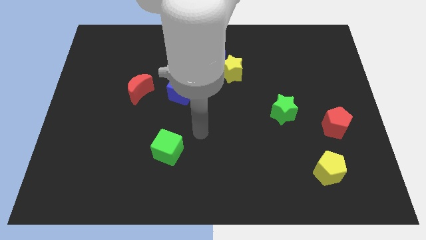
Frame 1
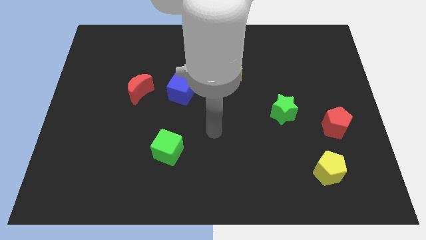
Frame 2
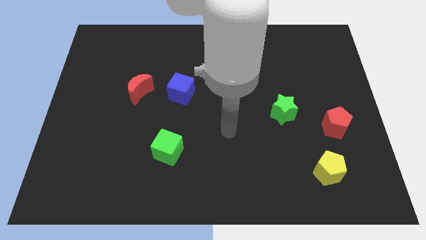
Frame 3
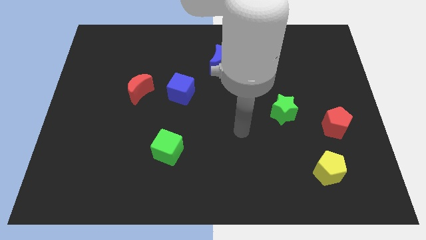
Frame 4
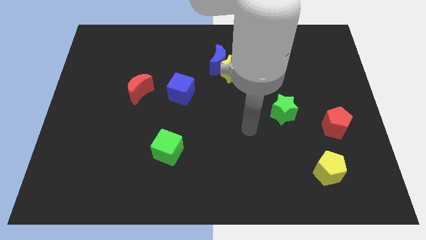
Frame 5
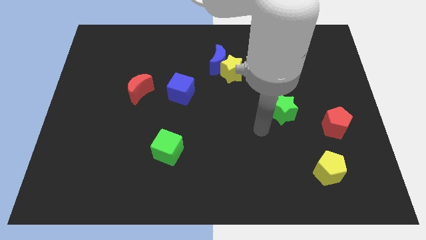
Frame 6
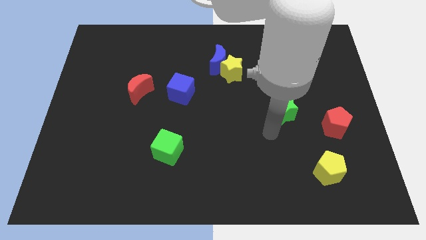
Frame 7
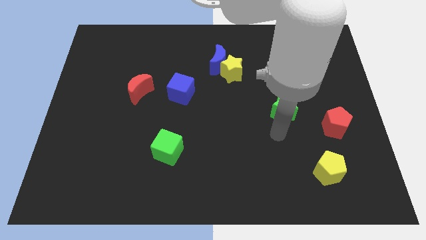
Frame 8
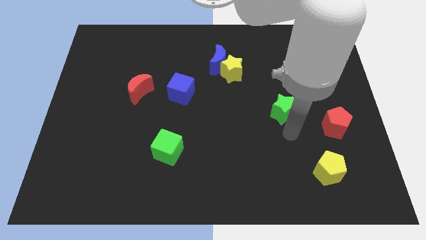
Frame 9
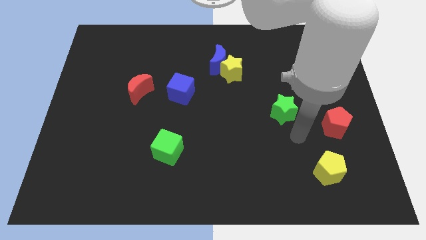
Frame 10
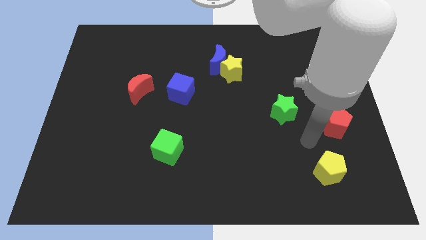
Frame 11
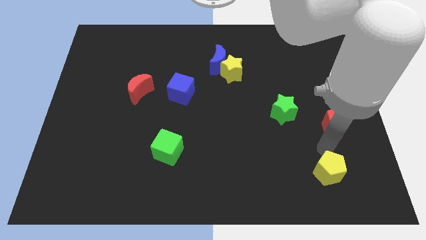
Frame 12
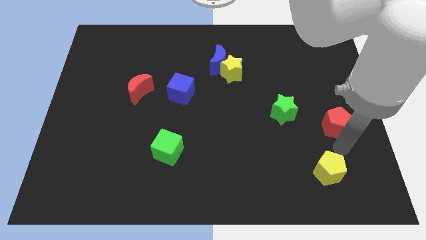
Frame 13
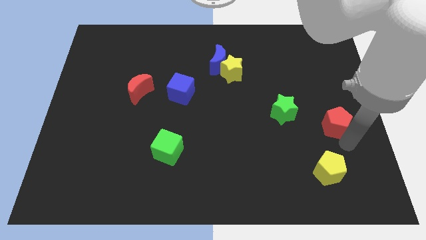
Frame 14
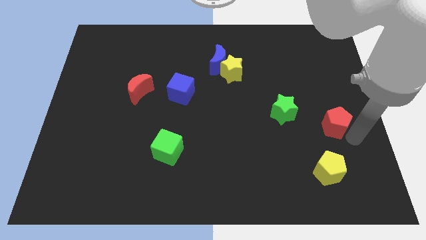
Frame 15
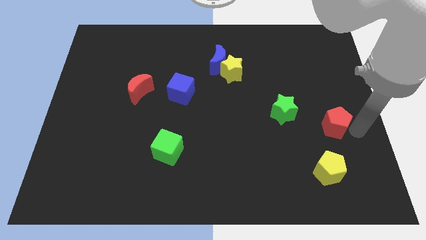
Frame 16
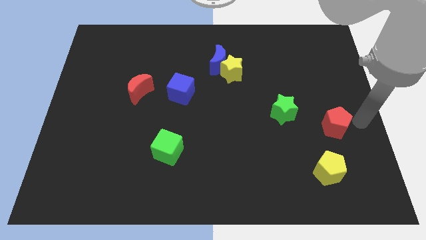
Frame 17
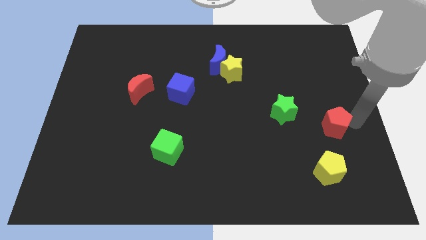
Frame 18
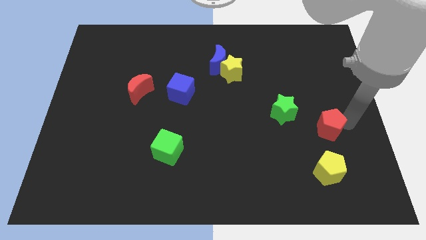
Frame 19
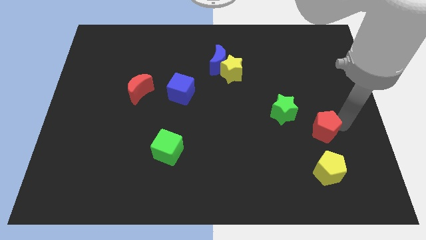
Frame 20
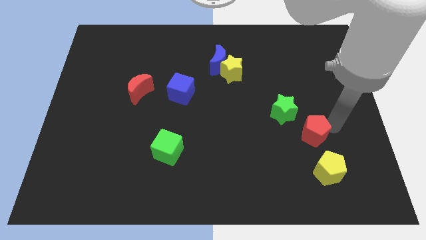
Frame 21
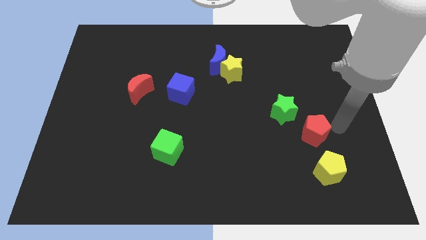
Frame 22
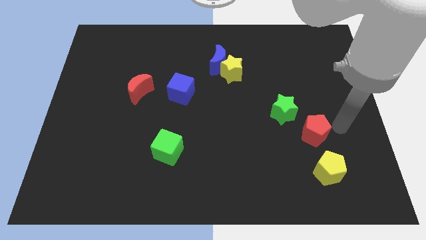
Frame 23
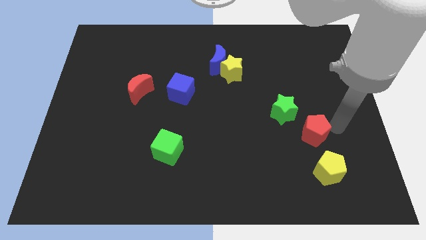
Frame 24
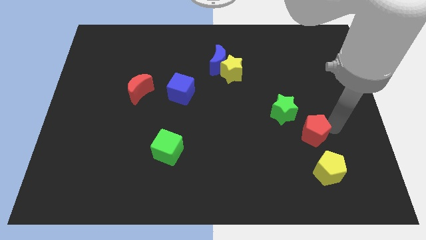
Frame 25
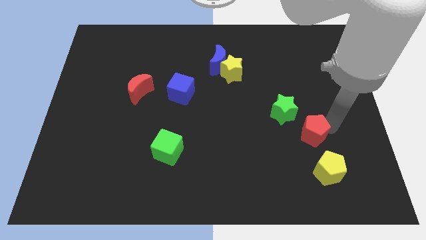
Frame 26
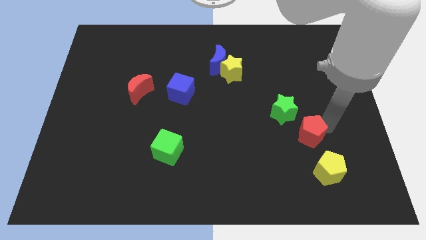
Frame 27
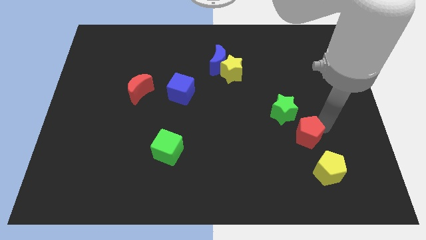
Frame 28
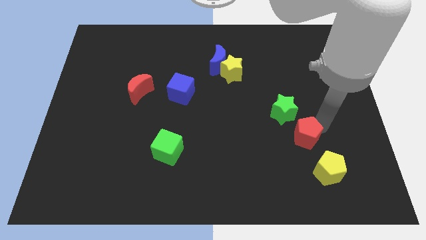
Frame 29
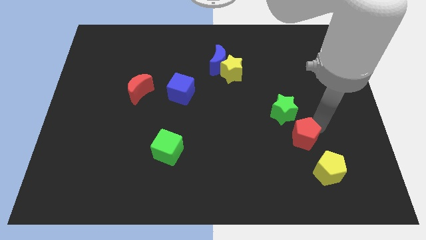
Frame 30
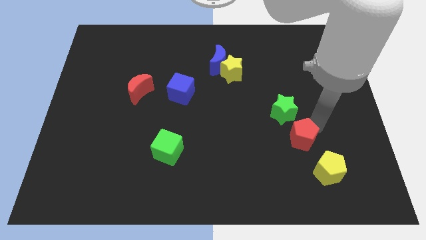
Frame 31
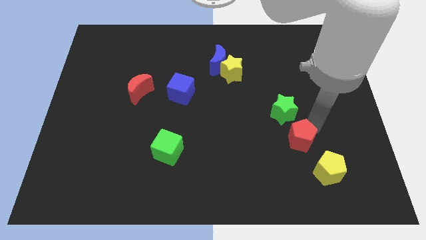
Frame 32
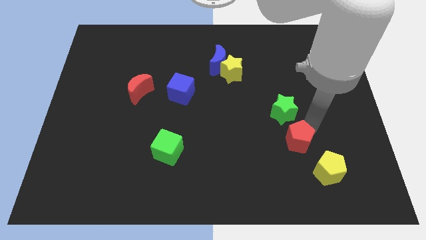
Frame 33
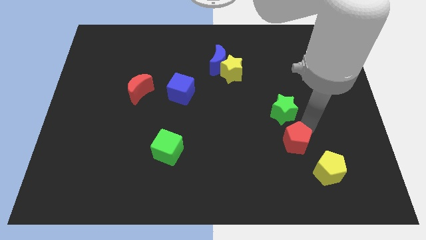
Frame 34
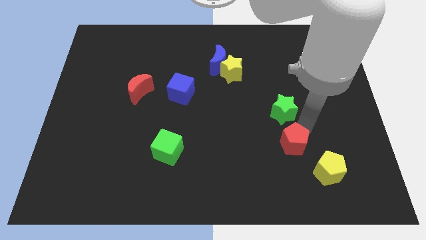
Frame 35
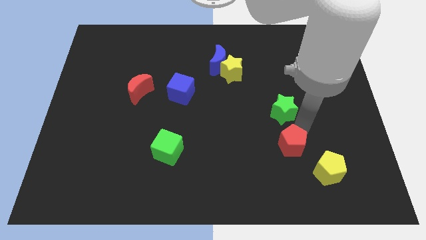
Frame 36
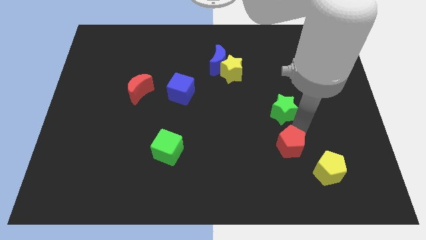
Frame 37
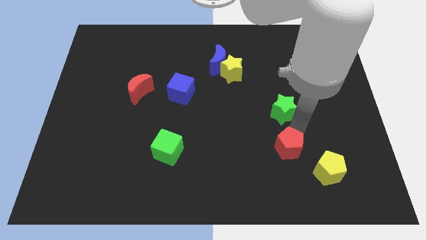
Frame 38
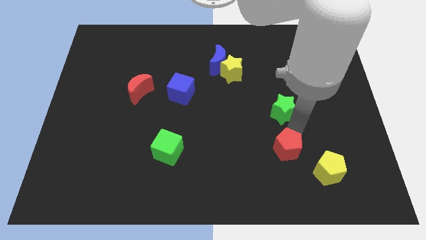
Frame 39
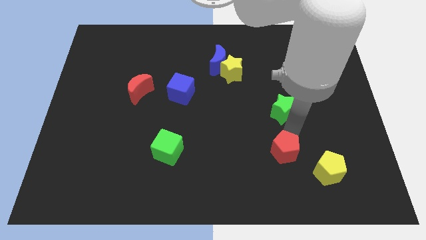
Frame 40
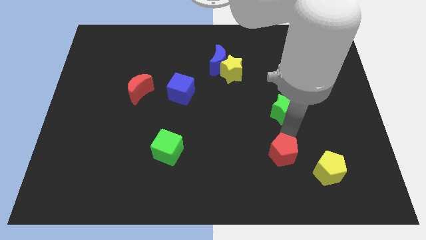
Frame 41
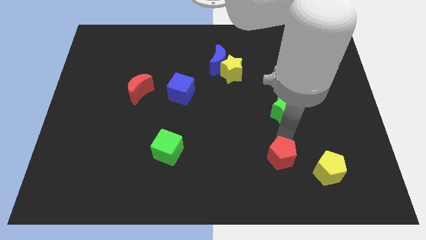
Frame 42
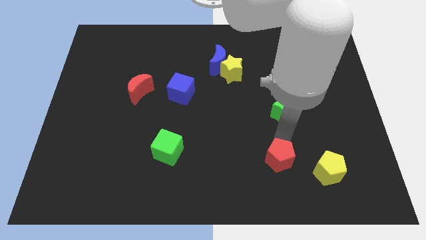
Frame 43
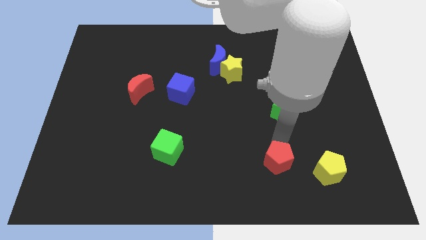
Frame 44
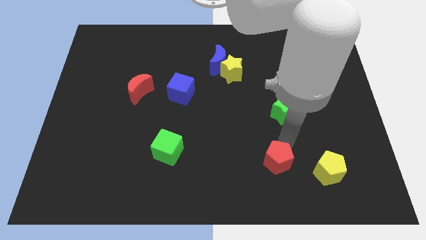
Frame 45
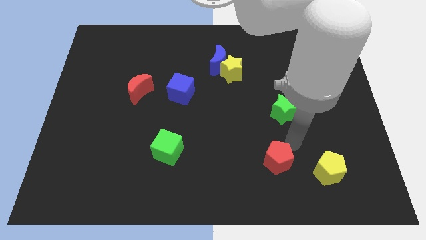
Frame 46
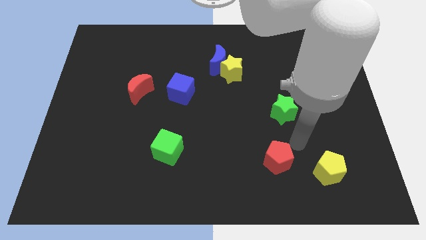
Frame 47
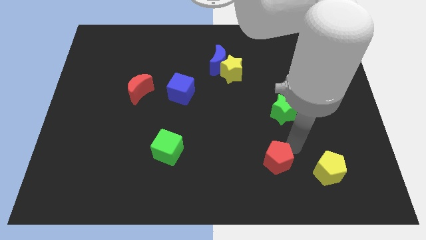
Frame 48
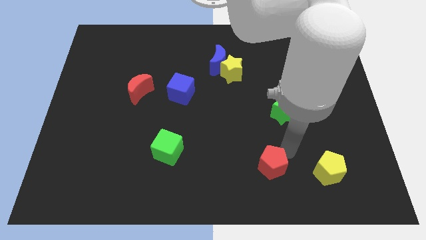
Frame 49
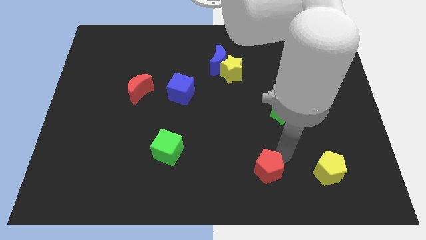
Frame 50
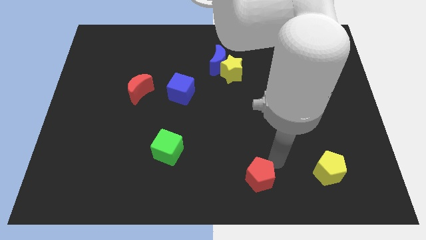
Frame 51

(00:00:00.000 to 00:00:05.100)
put the red pentagon to the bottom

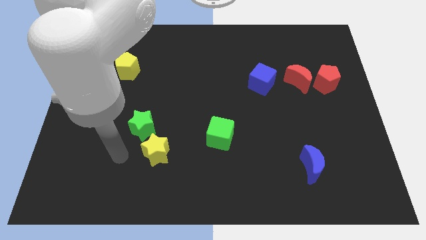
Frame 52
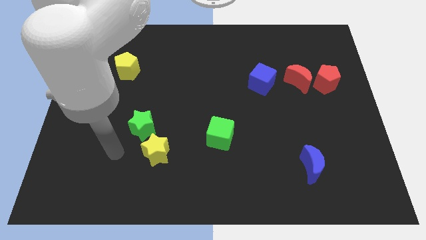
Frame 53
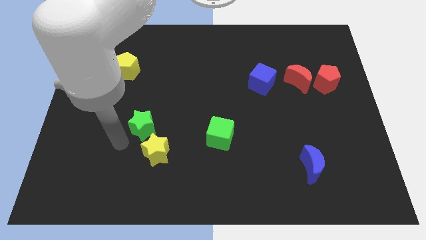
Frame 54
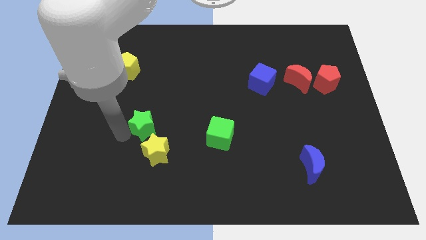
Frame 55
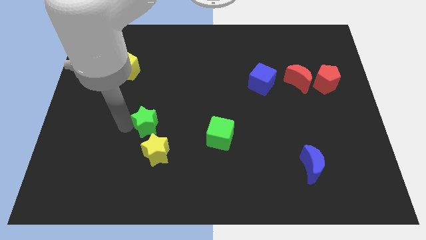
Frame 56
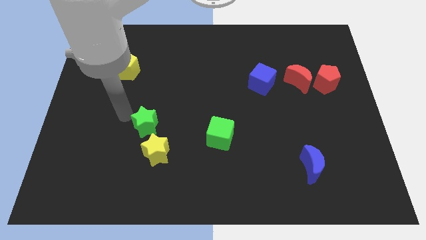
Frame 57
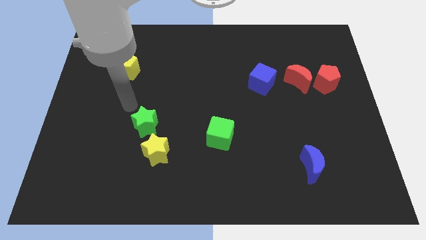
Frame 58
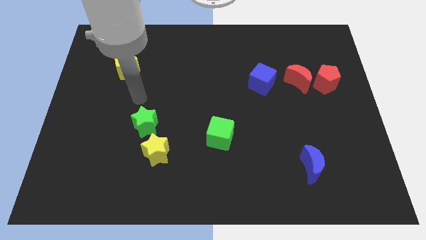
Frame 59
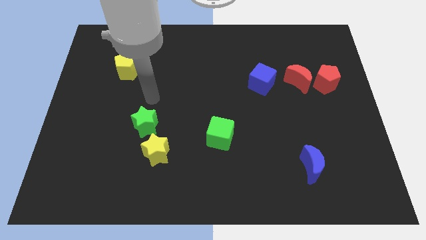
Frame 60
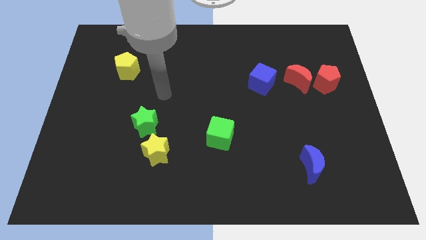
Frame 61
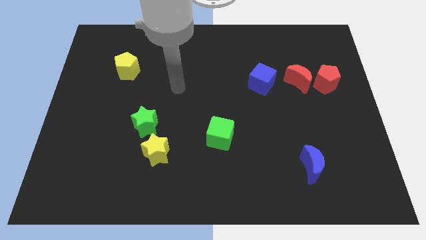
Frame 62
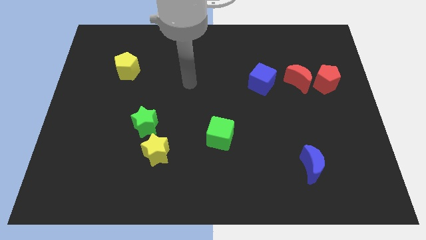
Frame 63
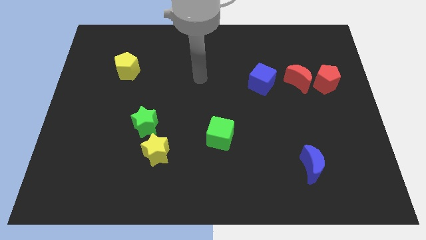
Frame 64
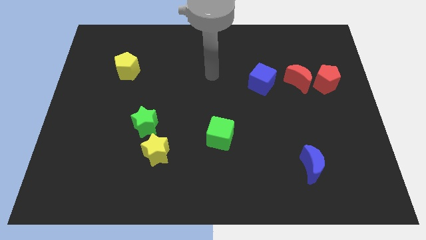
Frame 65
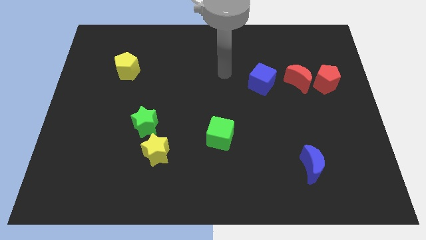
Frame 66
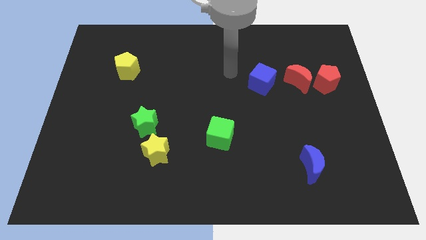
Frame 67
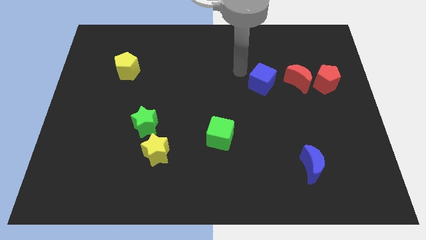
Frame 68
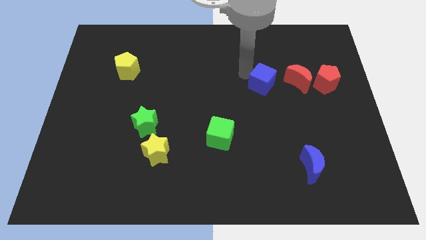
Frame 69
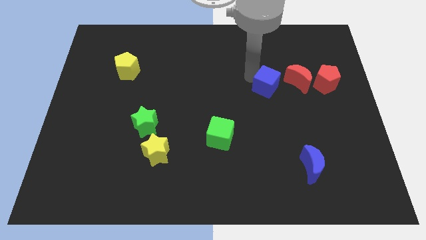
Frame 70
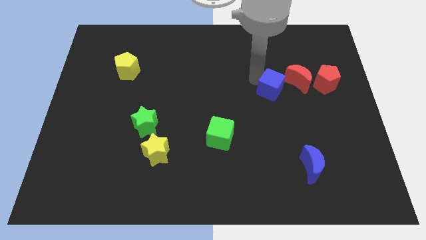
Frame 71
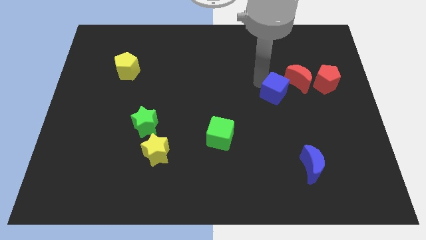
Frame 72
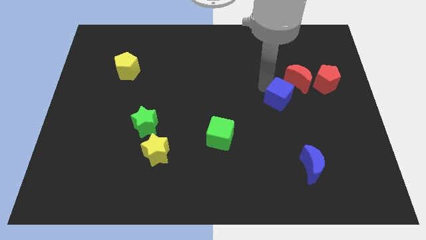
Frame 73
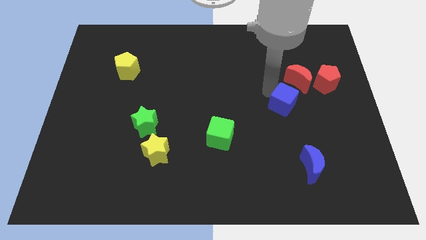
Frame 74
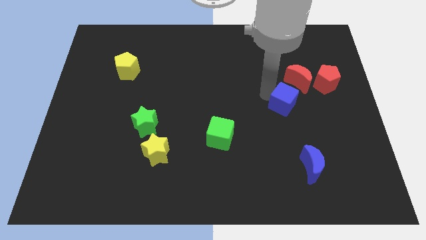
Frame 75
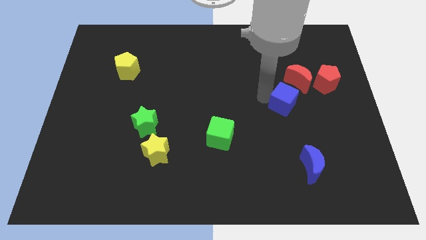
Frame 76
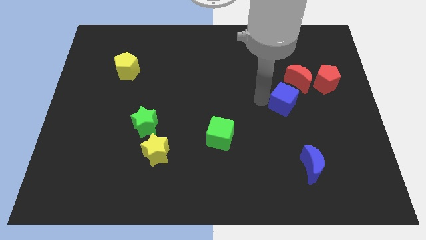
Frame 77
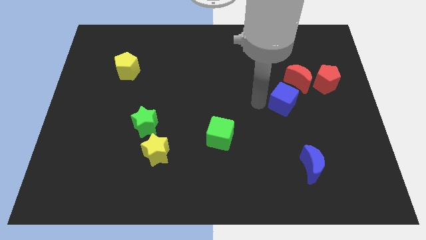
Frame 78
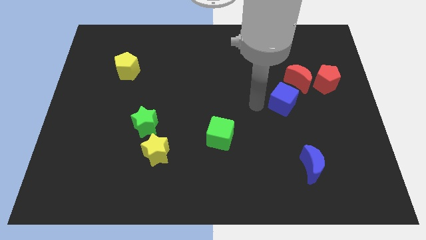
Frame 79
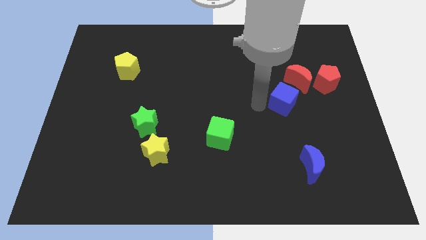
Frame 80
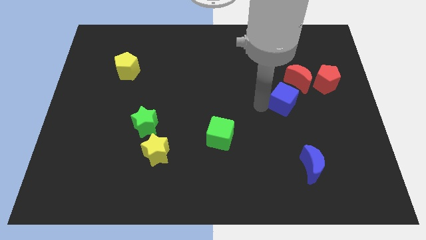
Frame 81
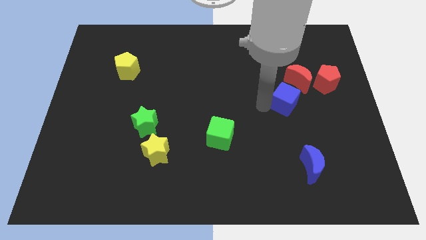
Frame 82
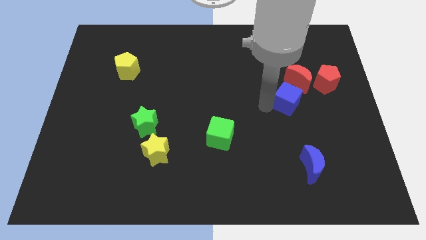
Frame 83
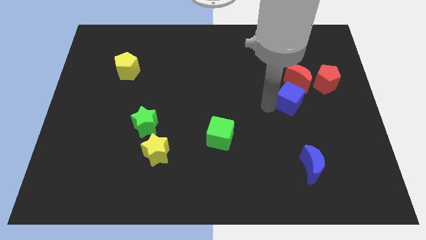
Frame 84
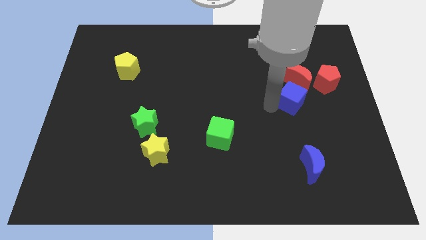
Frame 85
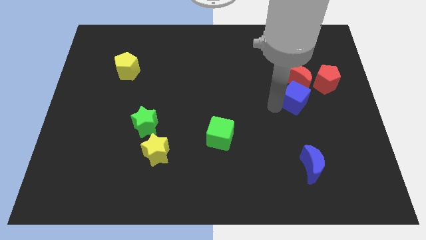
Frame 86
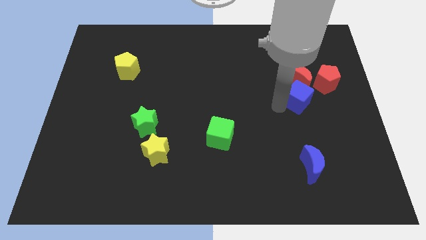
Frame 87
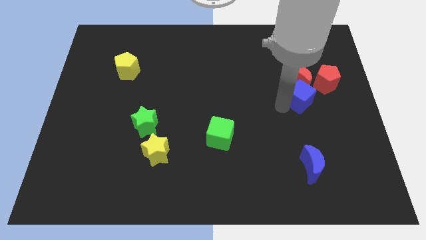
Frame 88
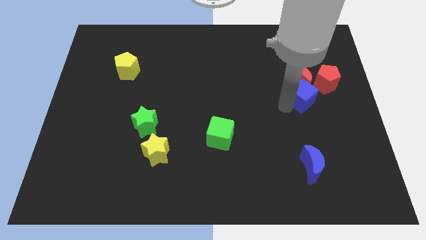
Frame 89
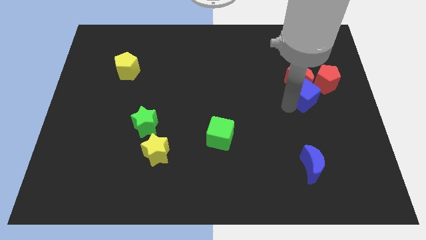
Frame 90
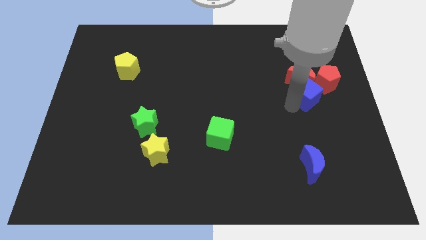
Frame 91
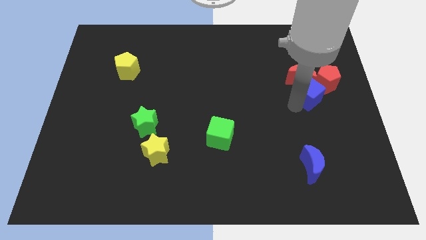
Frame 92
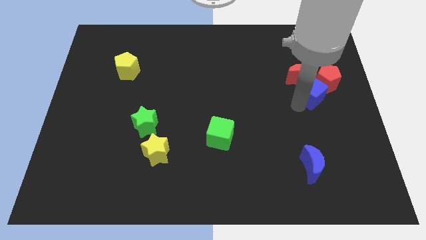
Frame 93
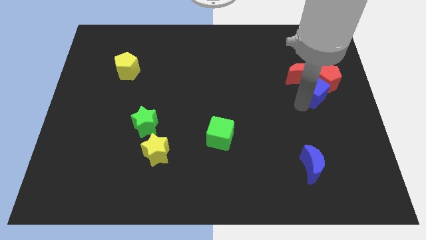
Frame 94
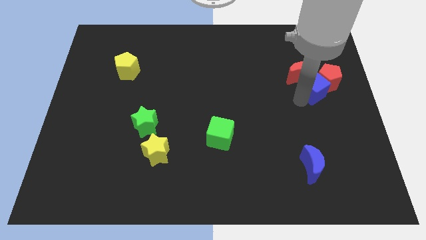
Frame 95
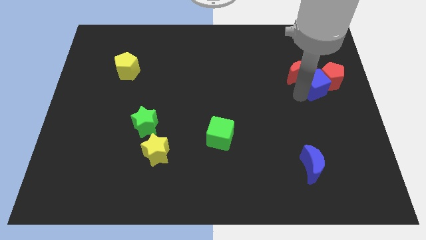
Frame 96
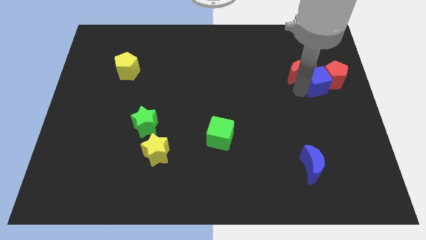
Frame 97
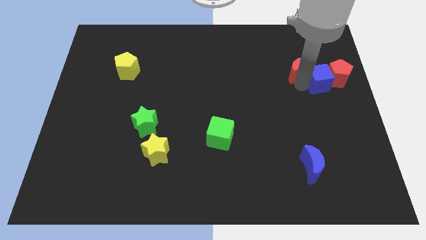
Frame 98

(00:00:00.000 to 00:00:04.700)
move the blue cube to the right side of the board
